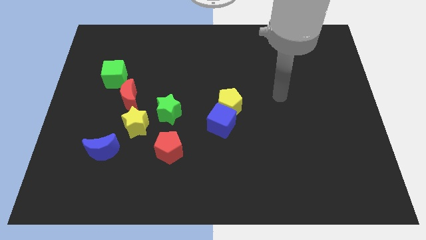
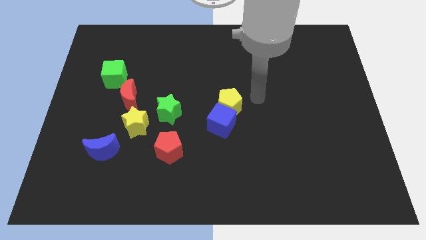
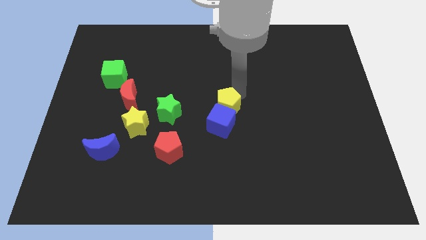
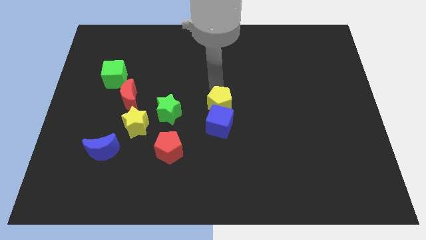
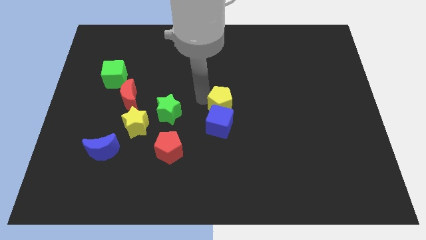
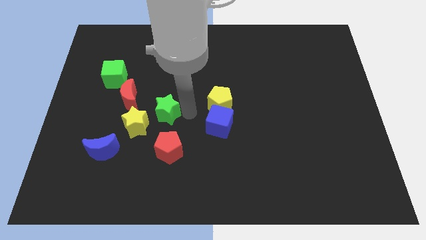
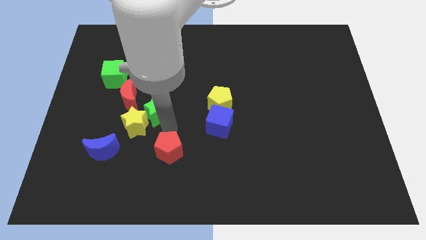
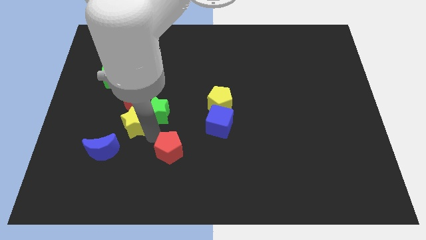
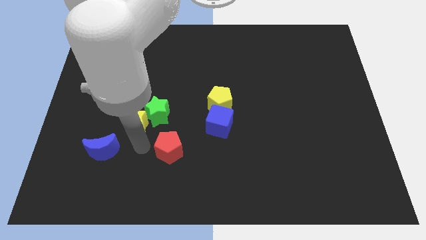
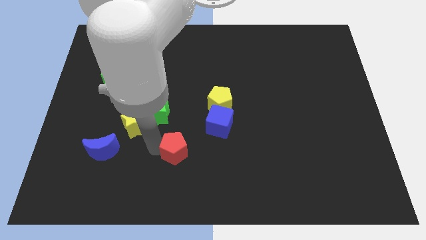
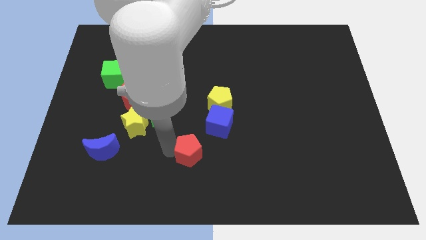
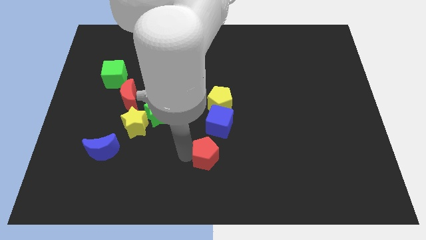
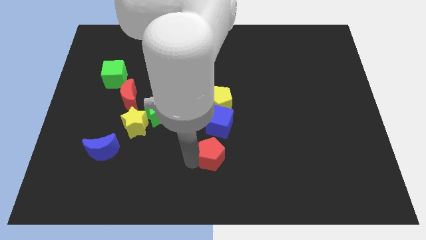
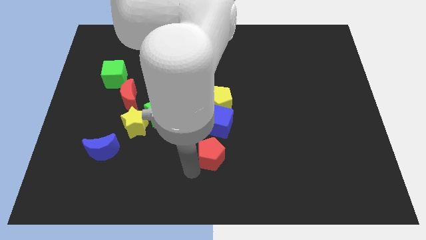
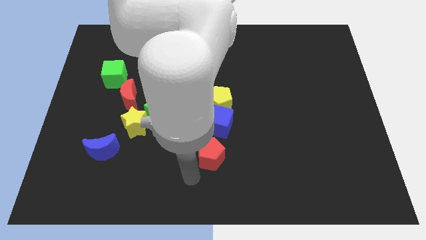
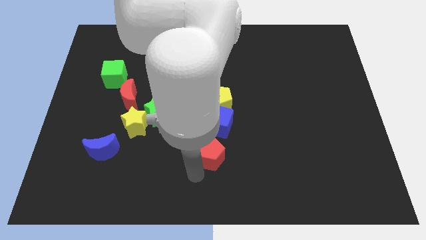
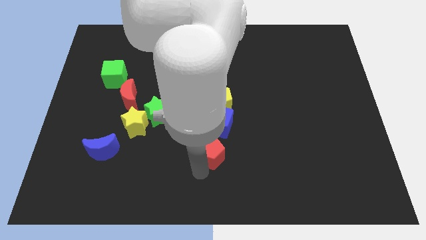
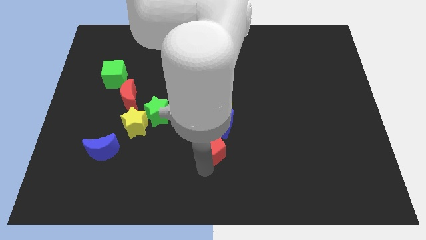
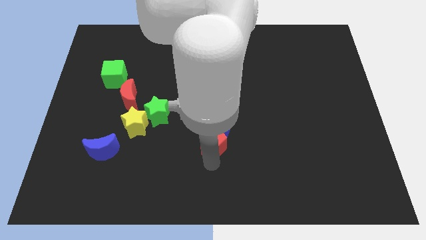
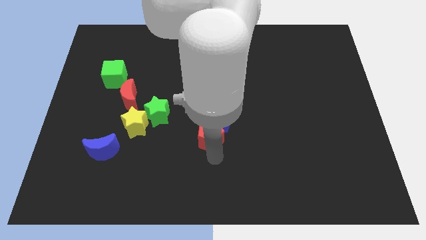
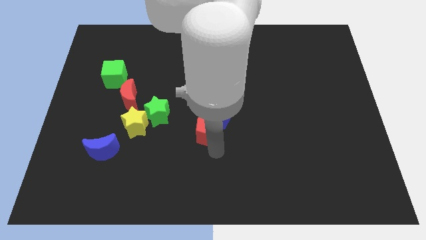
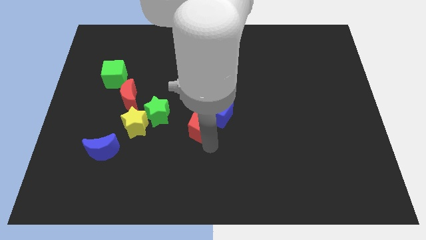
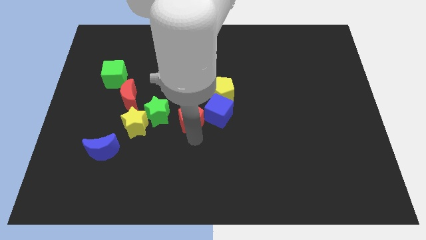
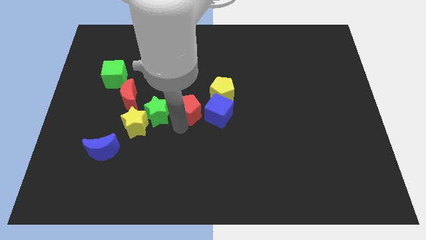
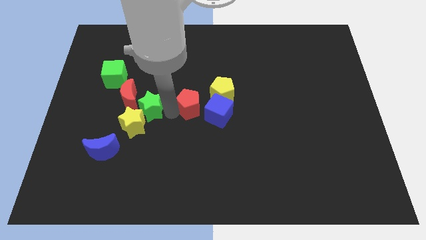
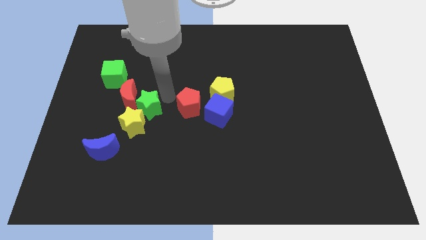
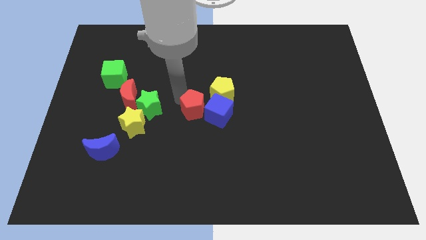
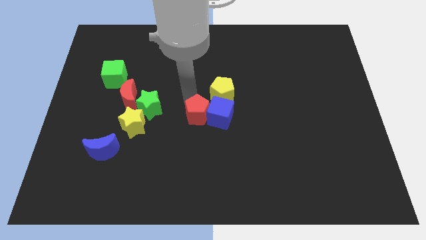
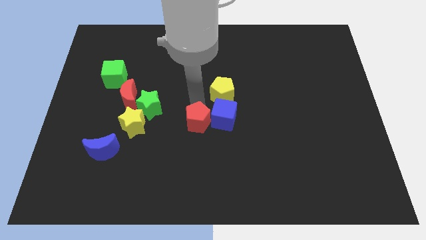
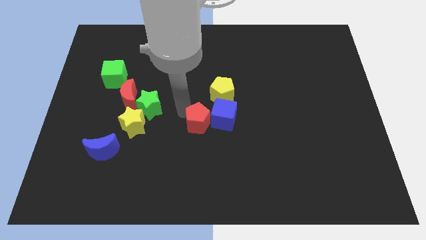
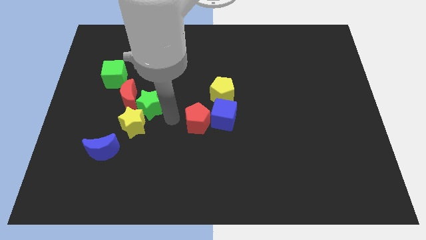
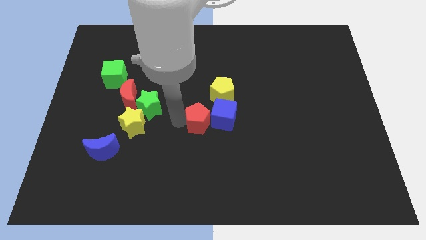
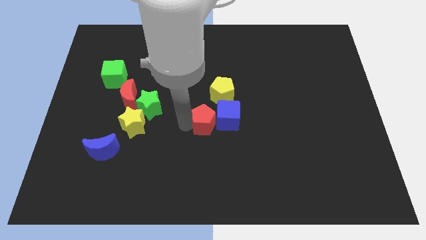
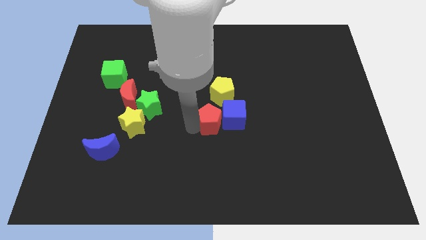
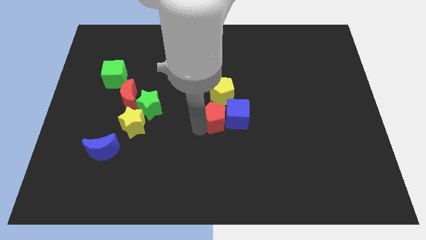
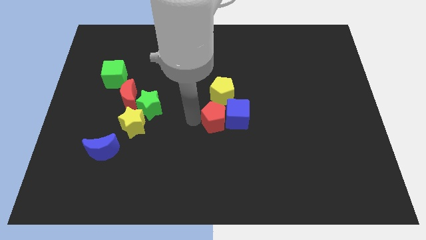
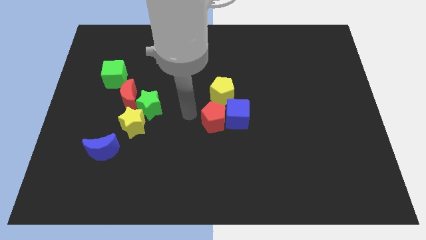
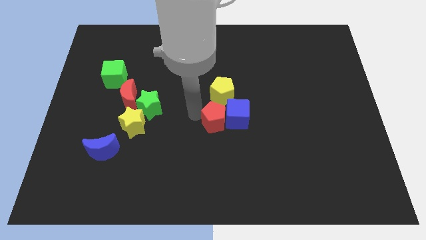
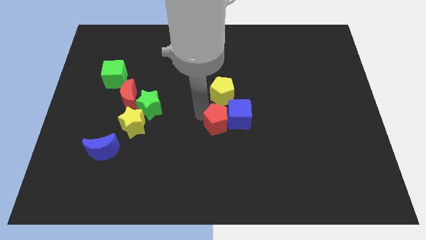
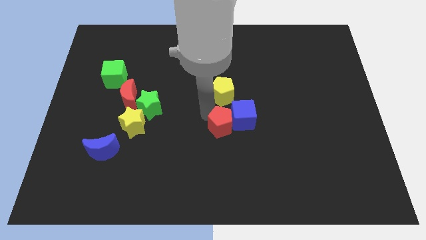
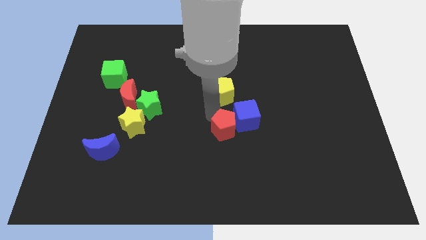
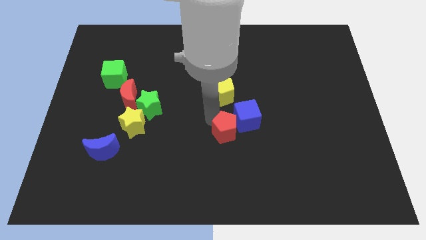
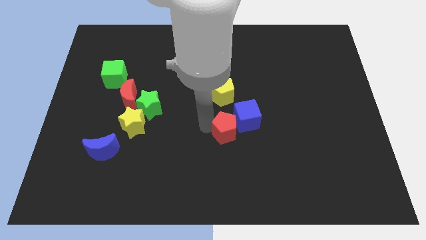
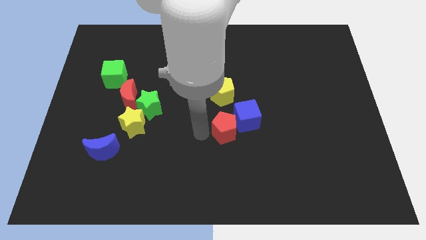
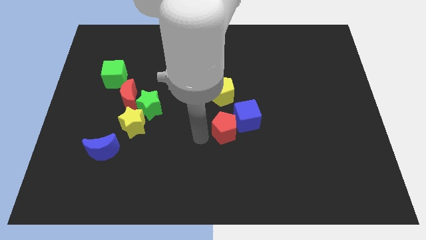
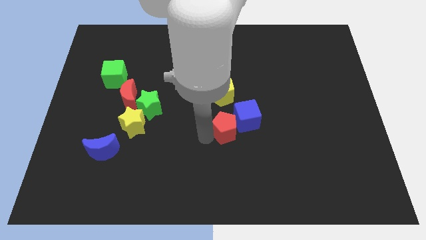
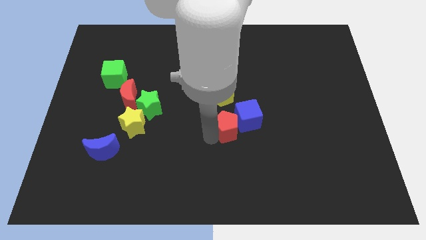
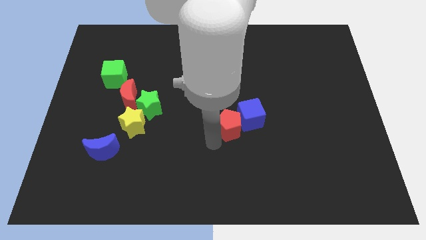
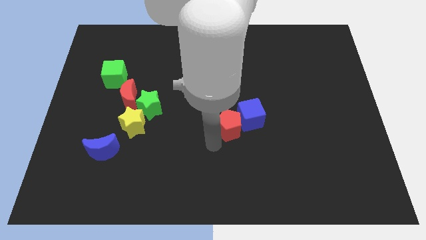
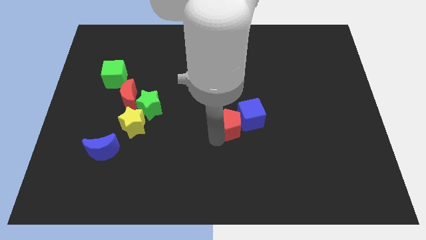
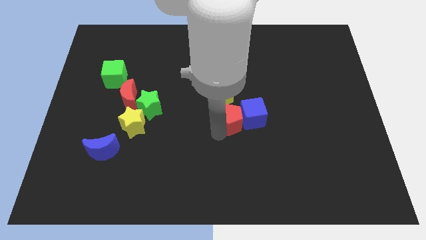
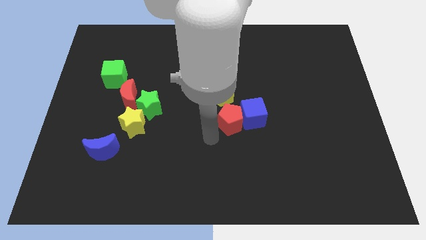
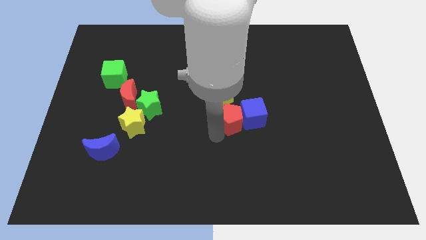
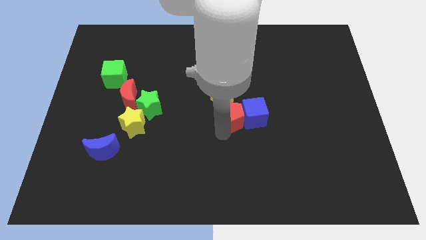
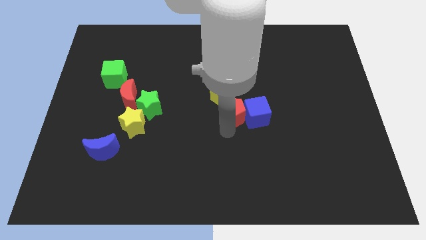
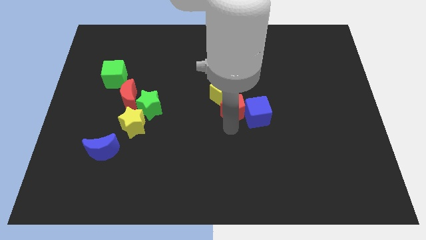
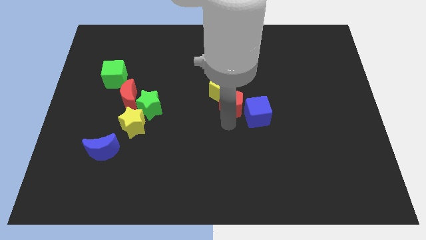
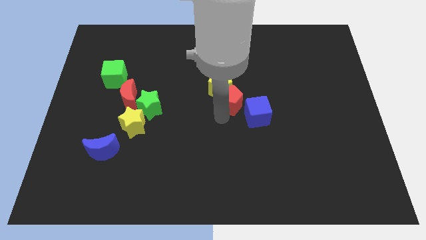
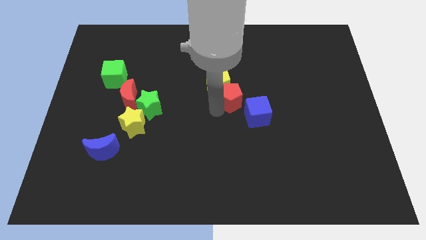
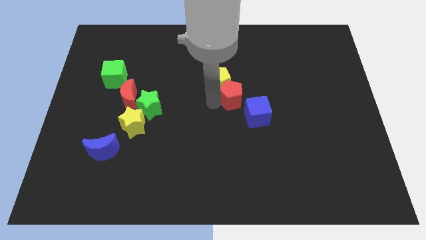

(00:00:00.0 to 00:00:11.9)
push the red pentagon up and right

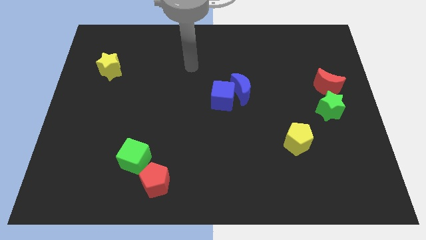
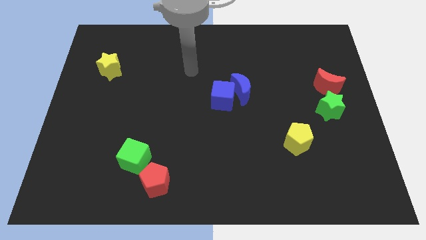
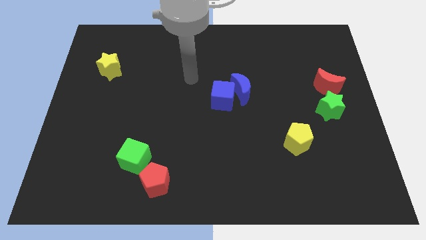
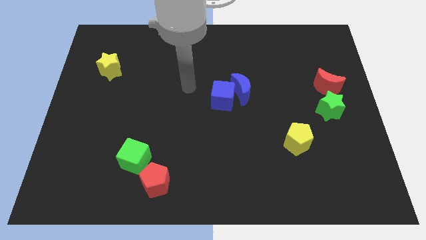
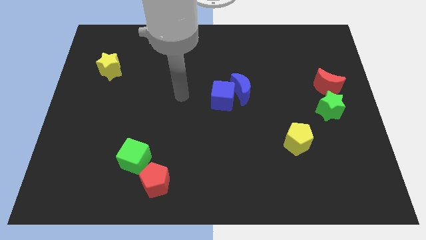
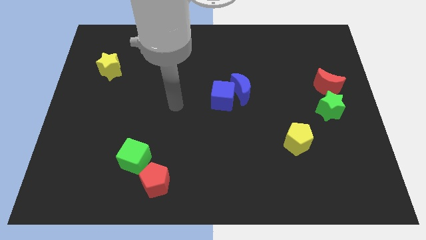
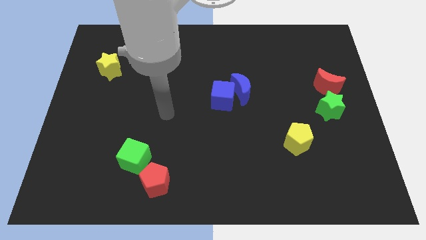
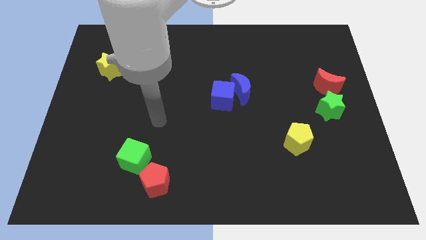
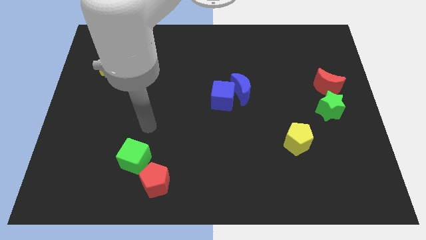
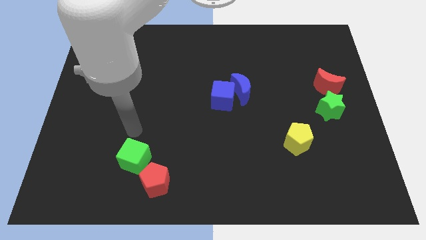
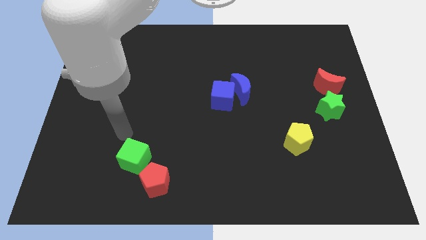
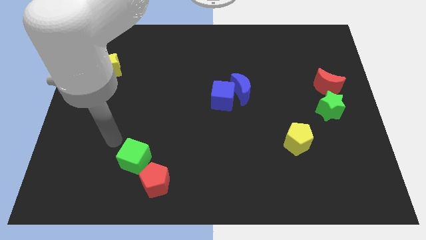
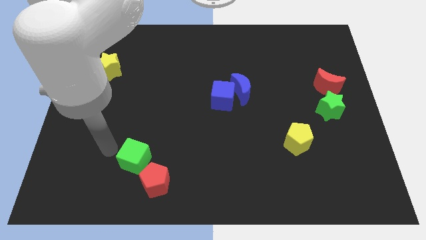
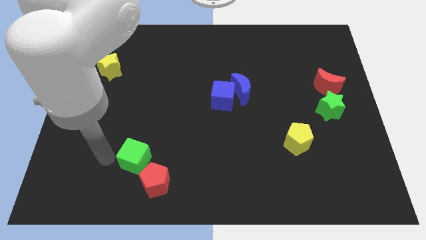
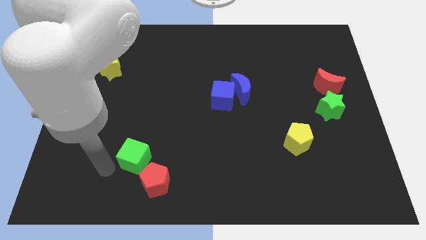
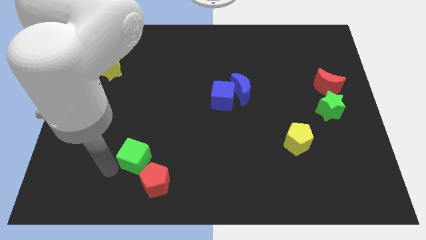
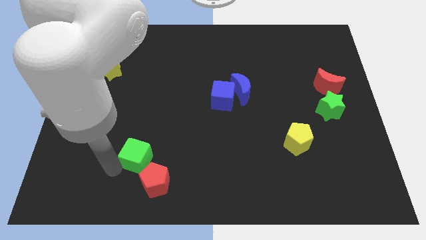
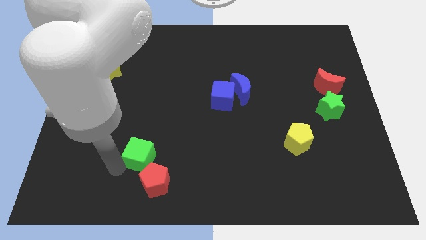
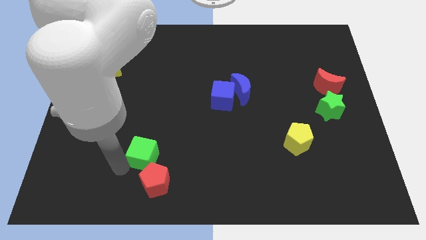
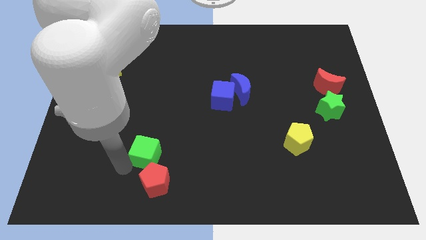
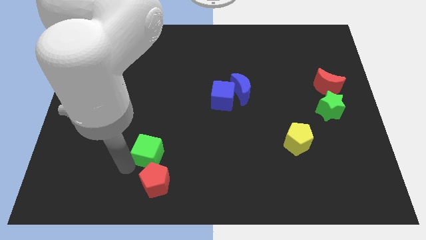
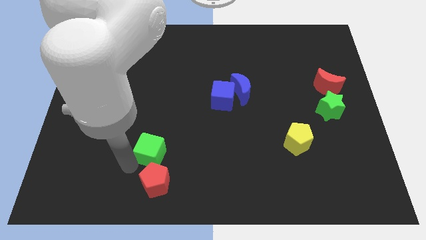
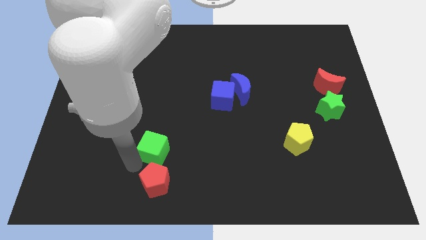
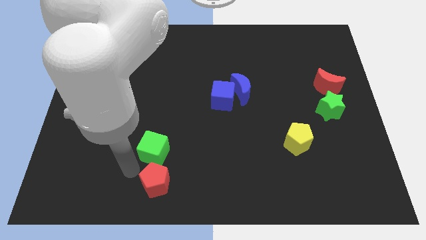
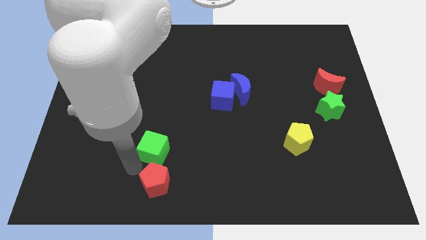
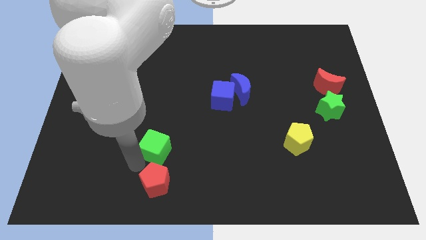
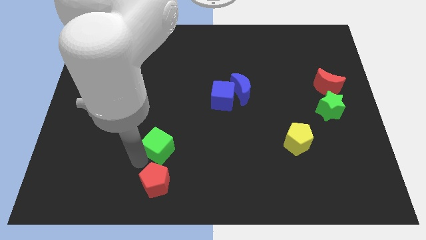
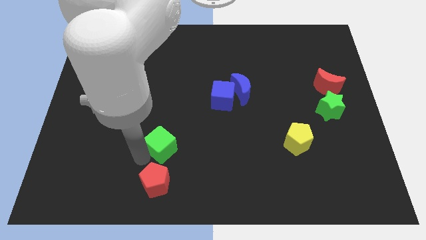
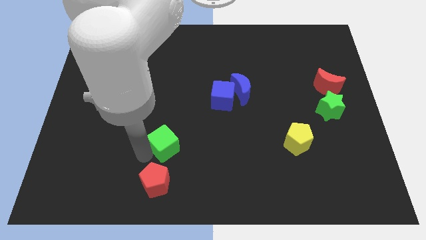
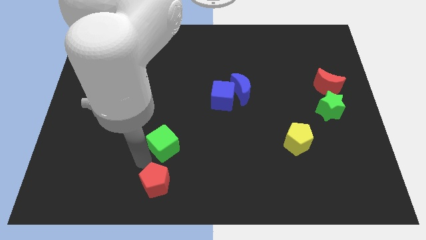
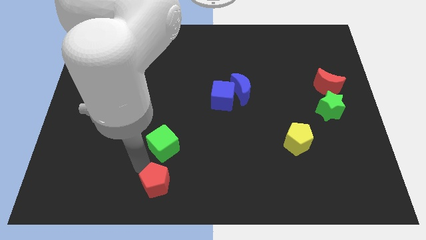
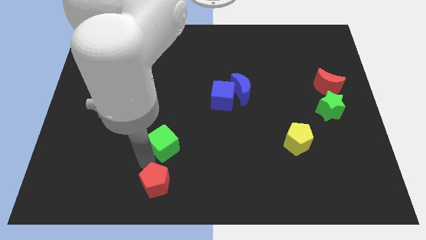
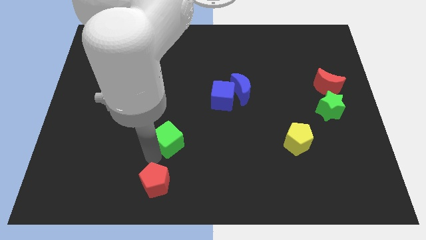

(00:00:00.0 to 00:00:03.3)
slightly push the green cube upwards and to the right diagonally
